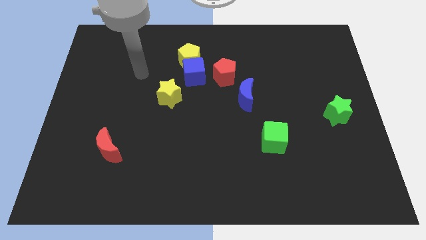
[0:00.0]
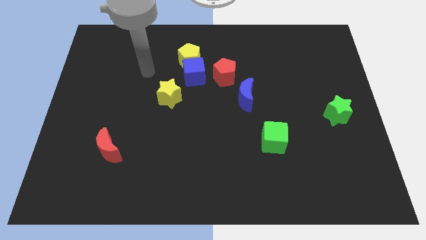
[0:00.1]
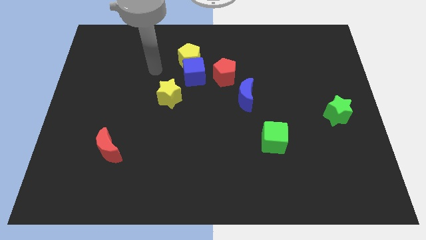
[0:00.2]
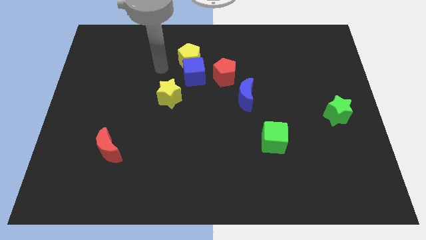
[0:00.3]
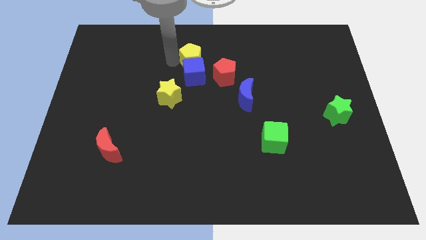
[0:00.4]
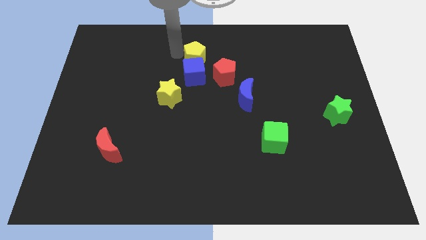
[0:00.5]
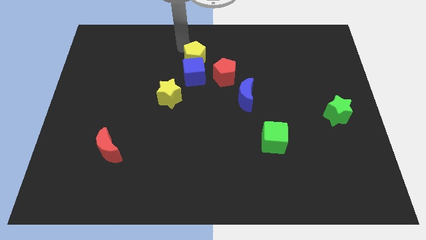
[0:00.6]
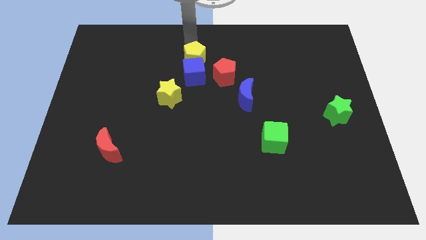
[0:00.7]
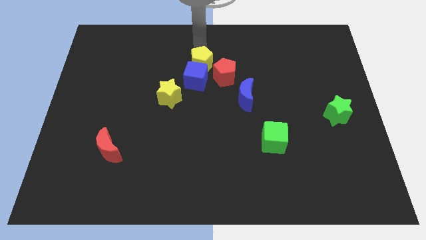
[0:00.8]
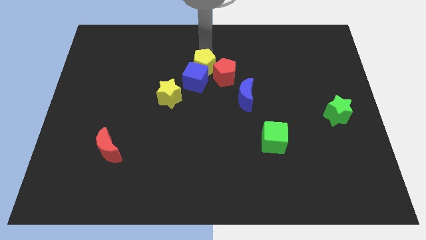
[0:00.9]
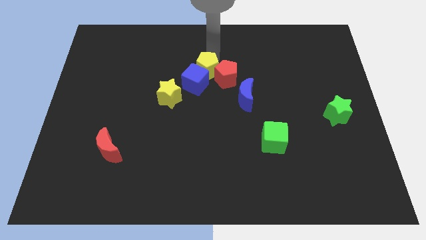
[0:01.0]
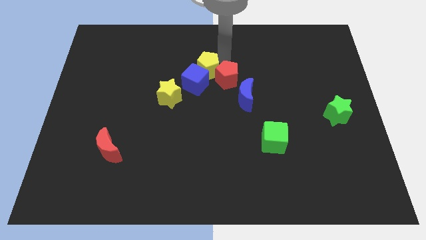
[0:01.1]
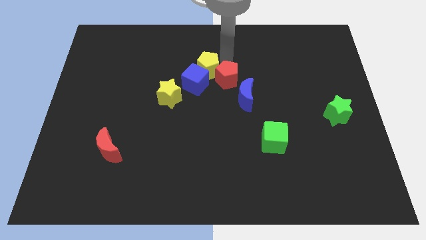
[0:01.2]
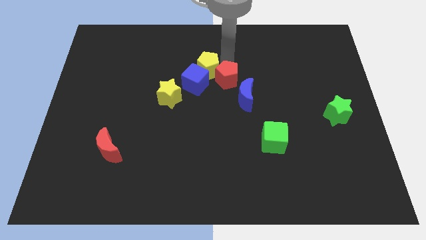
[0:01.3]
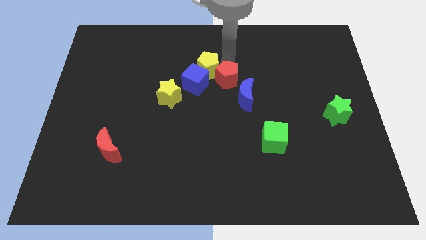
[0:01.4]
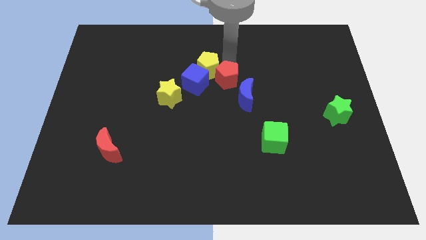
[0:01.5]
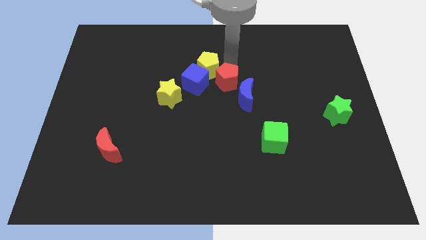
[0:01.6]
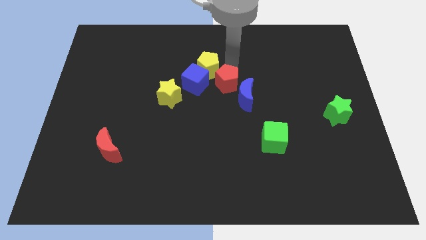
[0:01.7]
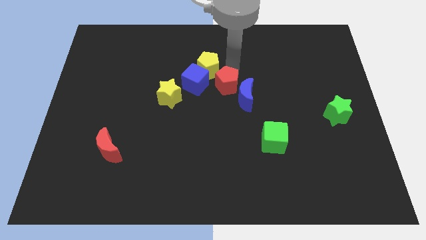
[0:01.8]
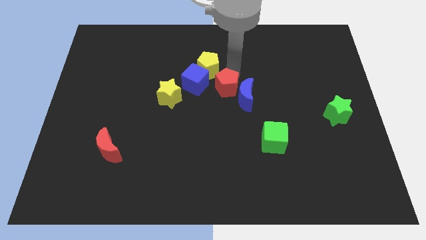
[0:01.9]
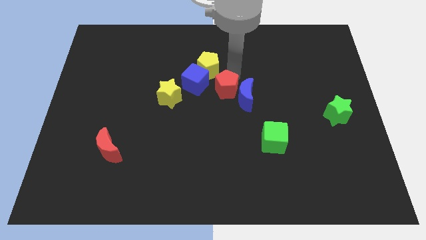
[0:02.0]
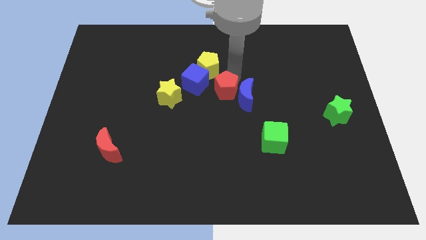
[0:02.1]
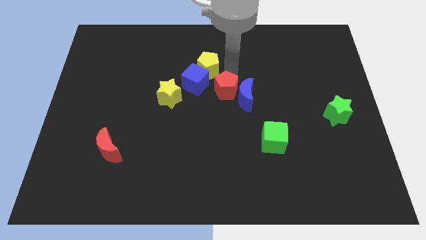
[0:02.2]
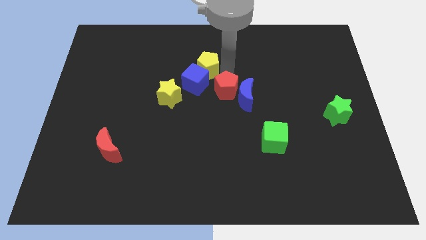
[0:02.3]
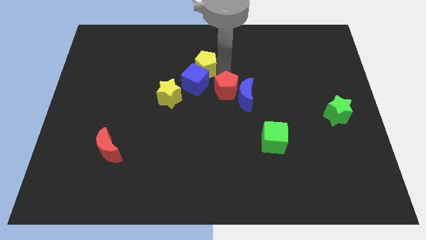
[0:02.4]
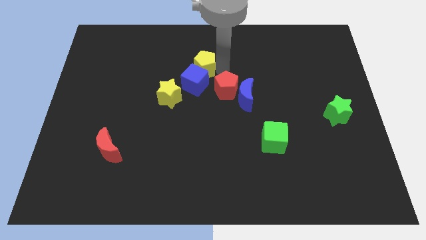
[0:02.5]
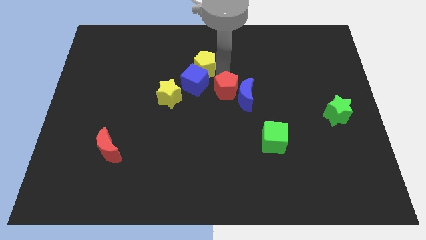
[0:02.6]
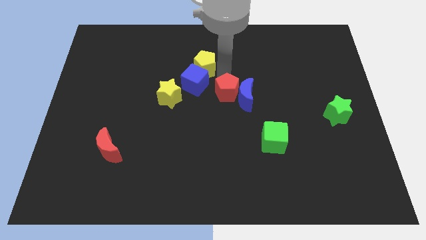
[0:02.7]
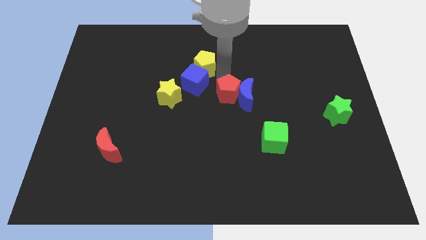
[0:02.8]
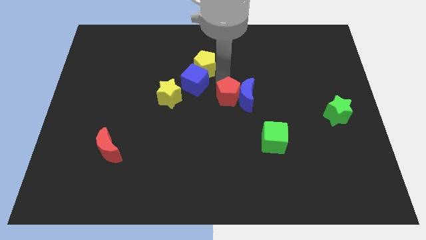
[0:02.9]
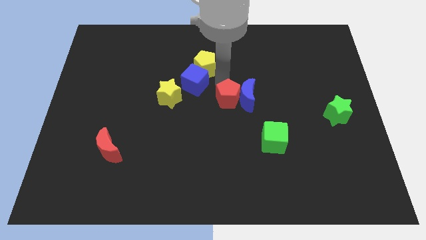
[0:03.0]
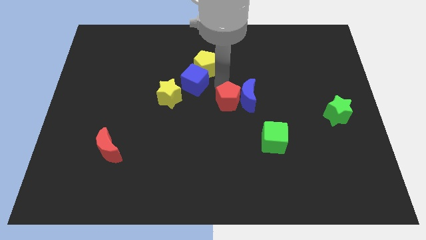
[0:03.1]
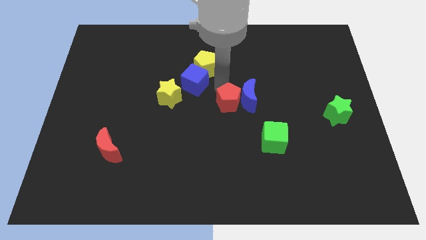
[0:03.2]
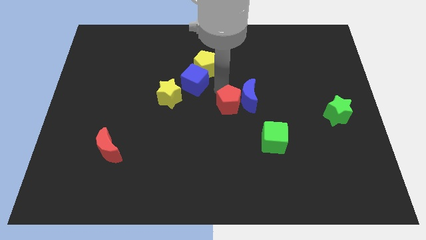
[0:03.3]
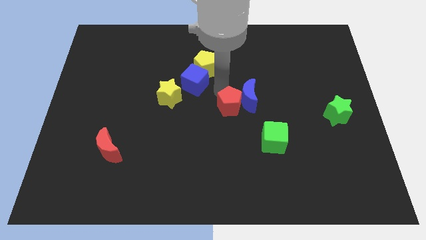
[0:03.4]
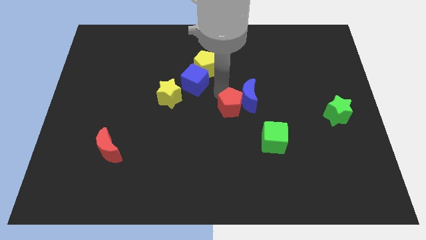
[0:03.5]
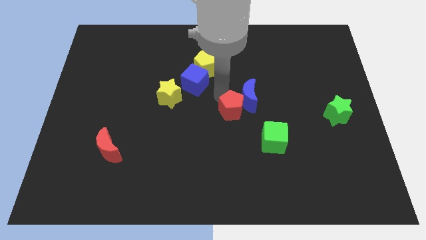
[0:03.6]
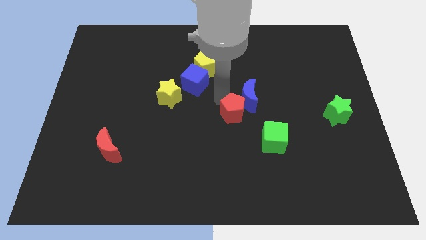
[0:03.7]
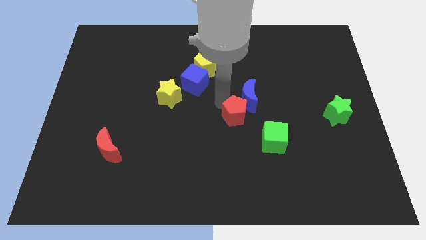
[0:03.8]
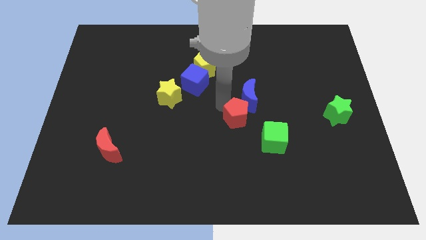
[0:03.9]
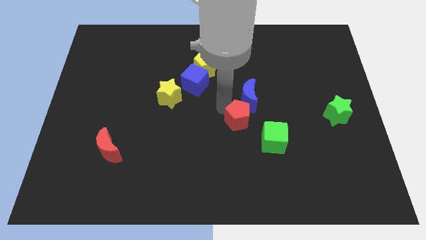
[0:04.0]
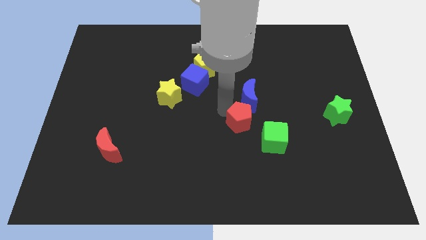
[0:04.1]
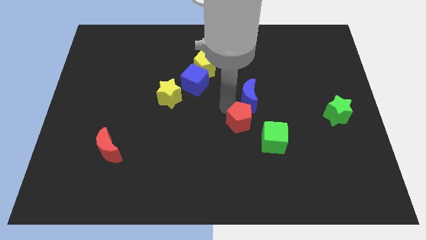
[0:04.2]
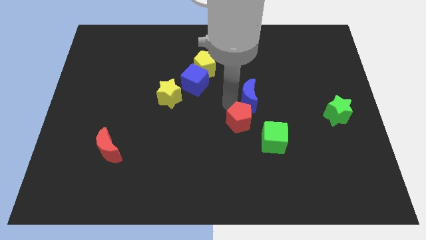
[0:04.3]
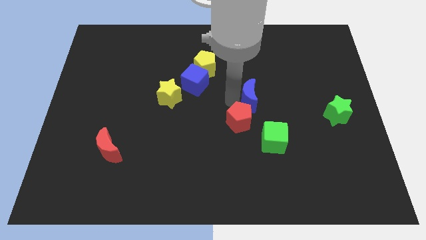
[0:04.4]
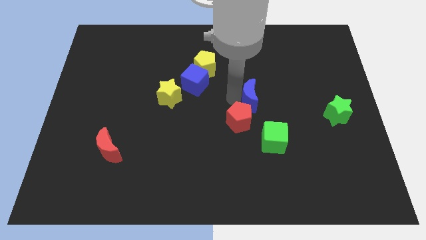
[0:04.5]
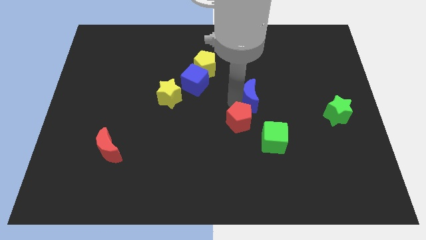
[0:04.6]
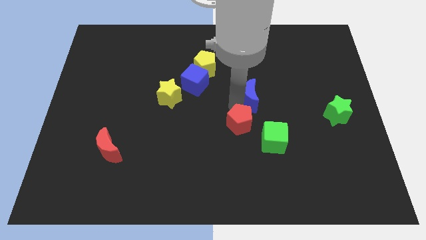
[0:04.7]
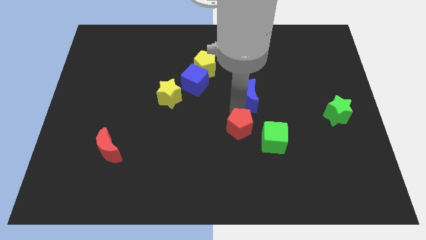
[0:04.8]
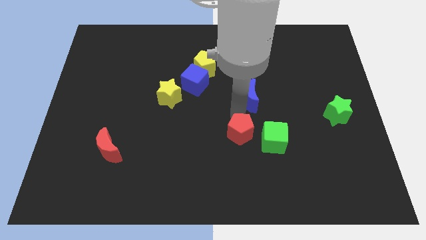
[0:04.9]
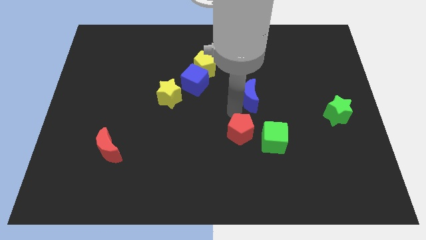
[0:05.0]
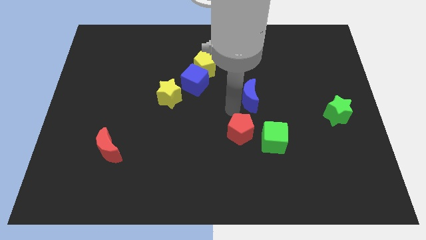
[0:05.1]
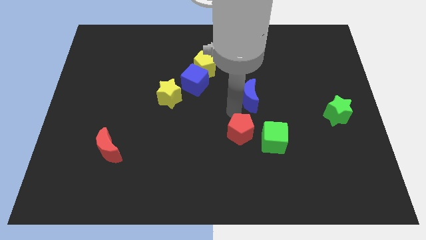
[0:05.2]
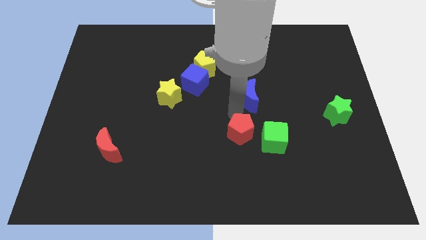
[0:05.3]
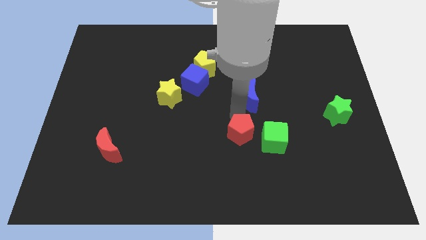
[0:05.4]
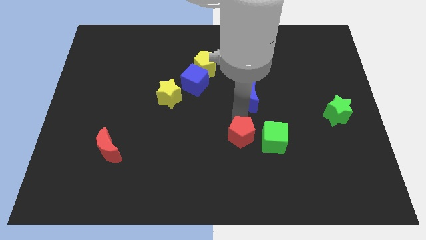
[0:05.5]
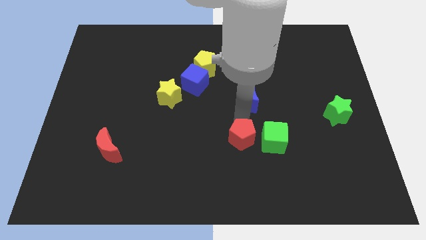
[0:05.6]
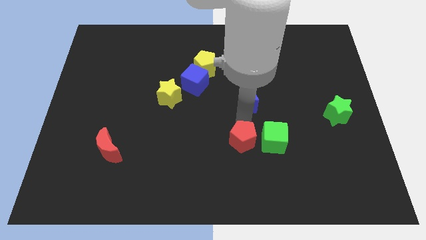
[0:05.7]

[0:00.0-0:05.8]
slide the red pentagon diagonally down and to the left of the green cube

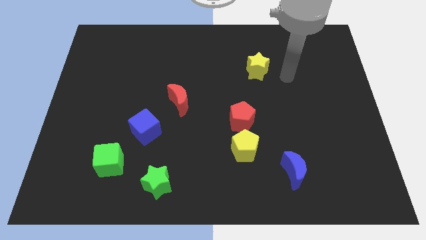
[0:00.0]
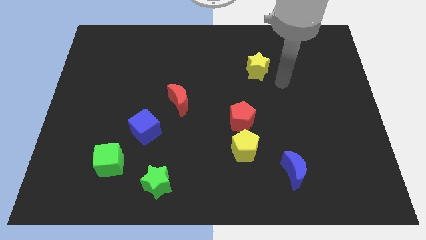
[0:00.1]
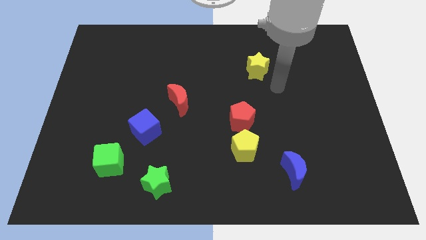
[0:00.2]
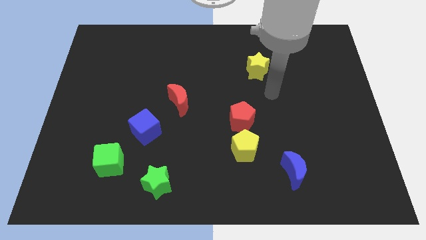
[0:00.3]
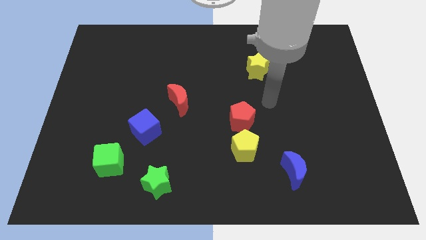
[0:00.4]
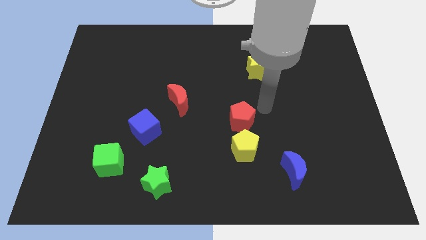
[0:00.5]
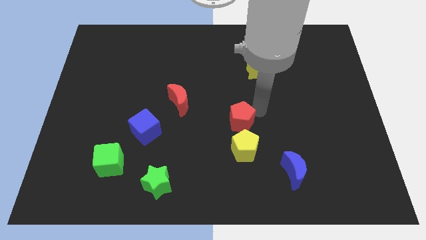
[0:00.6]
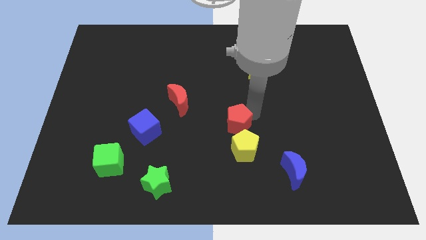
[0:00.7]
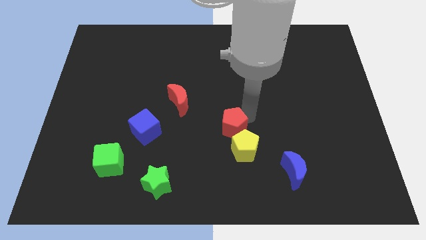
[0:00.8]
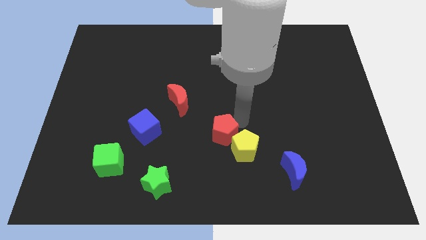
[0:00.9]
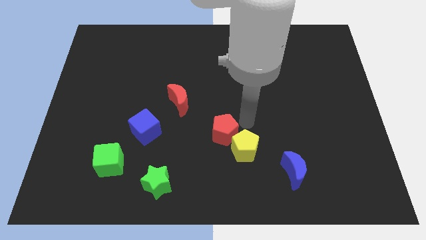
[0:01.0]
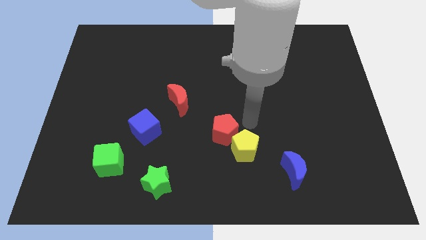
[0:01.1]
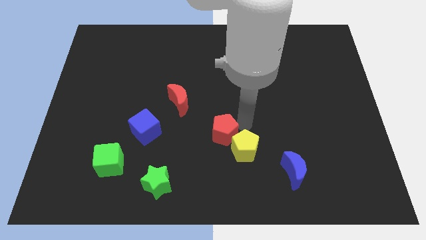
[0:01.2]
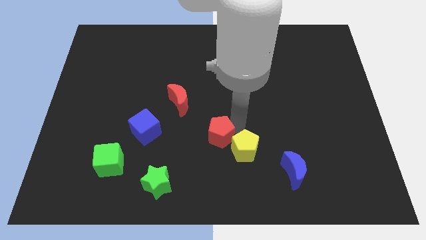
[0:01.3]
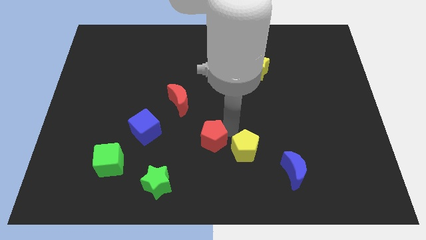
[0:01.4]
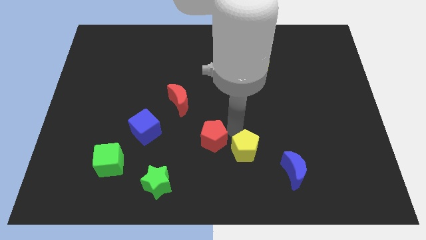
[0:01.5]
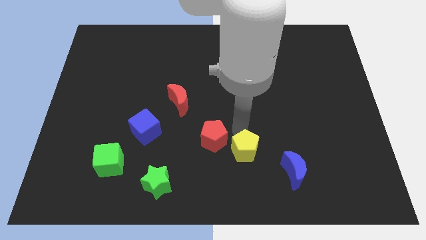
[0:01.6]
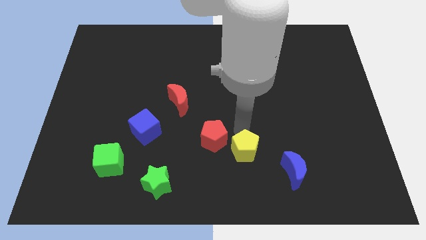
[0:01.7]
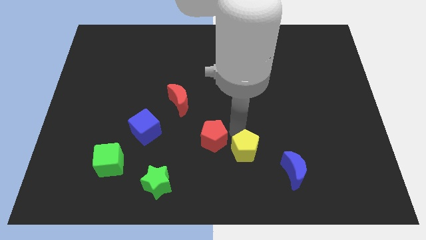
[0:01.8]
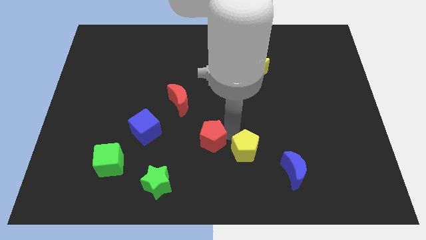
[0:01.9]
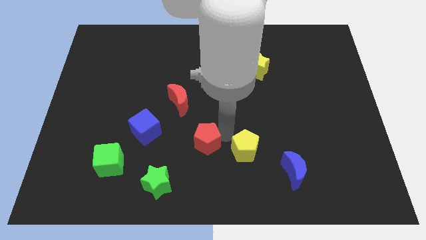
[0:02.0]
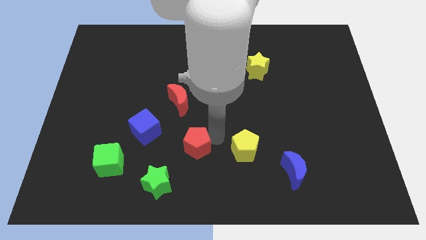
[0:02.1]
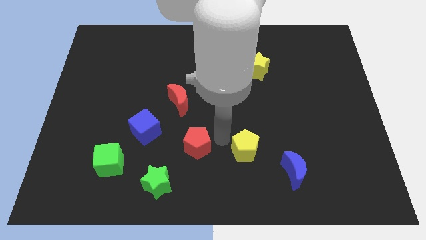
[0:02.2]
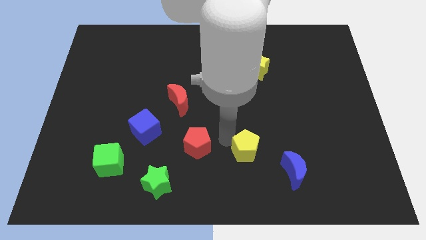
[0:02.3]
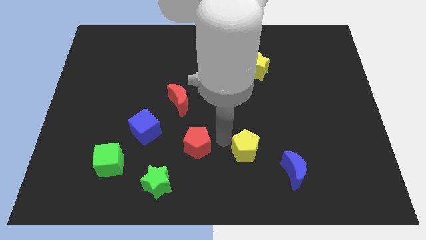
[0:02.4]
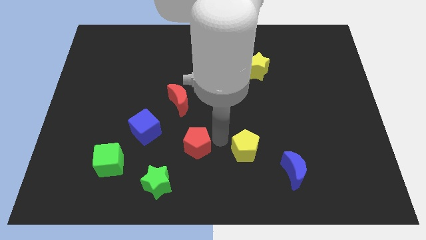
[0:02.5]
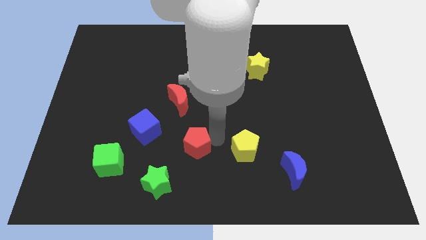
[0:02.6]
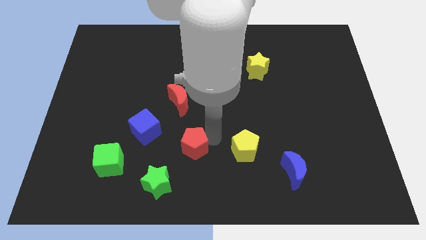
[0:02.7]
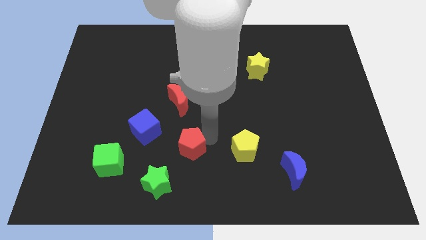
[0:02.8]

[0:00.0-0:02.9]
slide the red pentagon to the bottom right side of the blue cube
